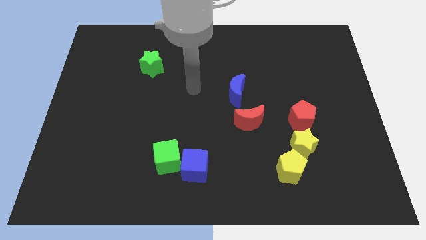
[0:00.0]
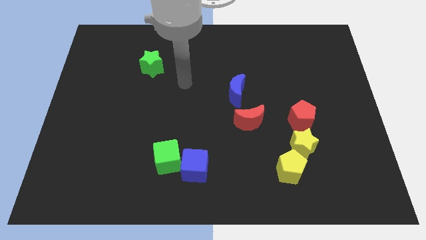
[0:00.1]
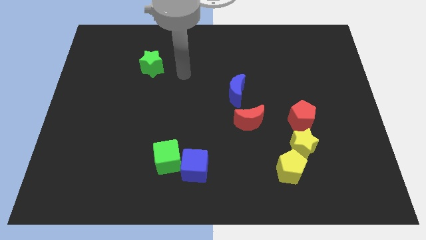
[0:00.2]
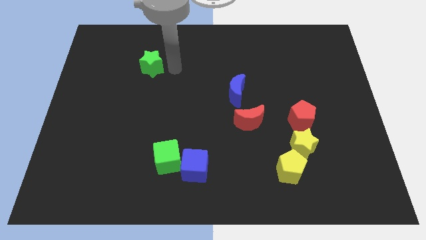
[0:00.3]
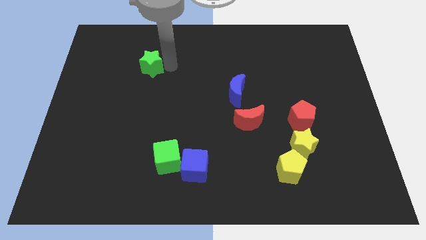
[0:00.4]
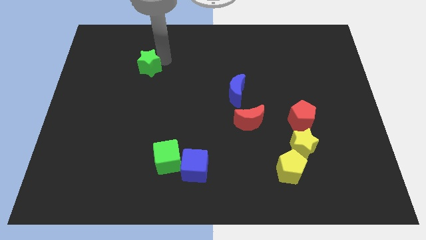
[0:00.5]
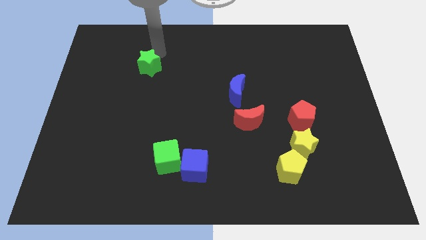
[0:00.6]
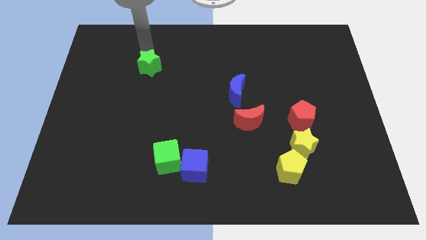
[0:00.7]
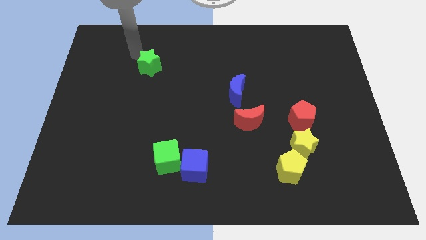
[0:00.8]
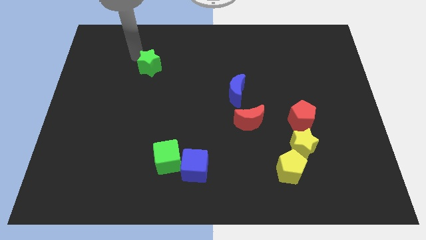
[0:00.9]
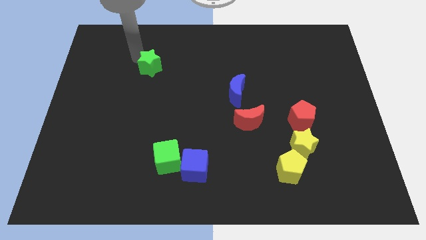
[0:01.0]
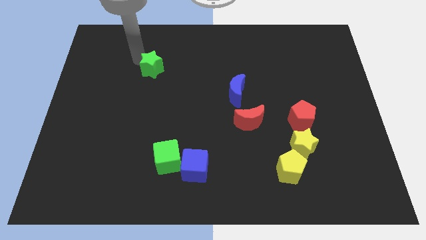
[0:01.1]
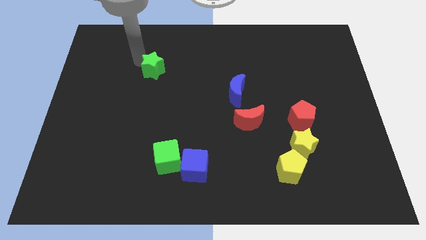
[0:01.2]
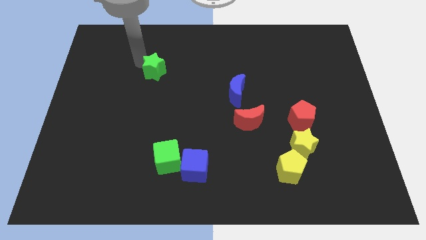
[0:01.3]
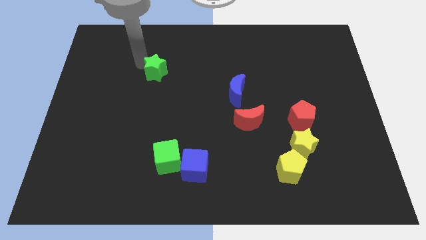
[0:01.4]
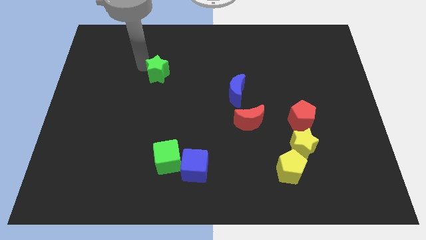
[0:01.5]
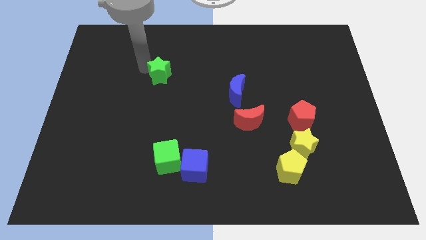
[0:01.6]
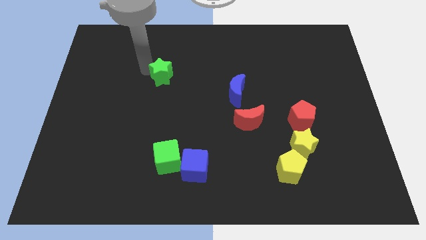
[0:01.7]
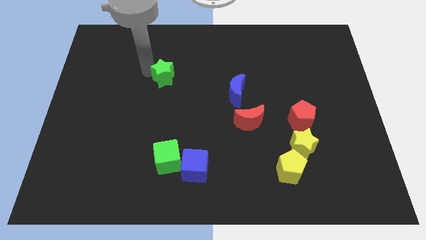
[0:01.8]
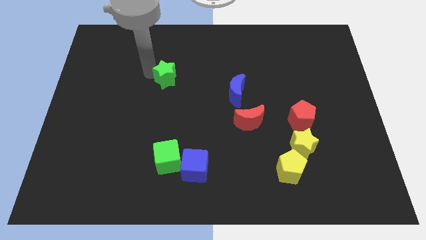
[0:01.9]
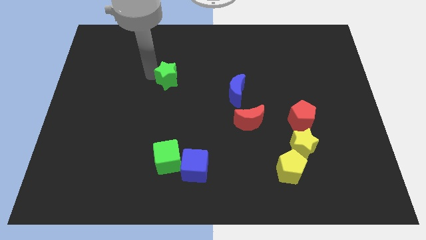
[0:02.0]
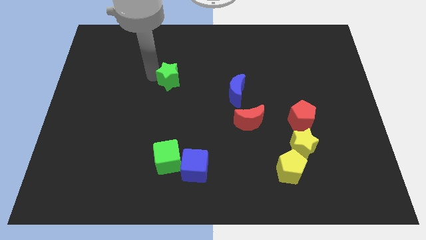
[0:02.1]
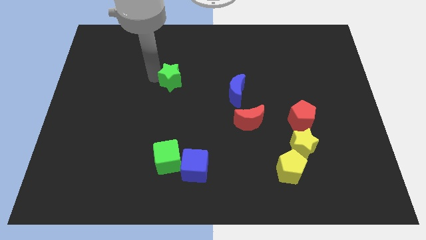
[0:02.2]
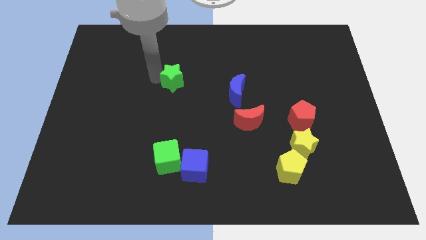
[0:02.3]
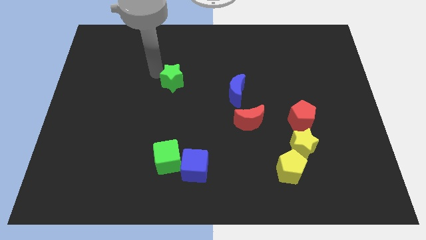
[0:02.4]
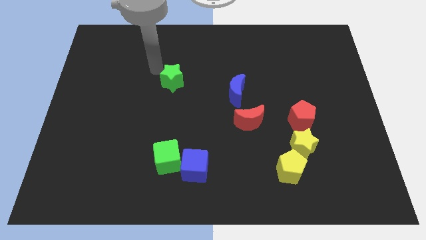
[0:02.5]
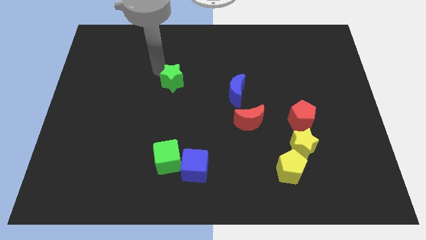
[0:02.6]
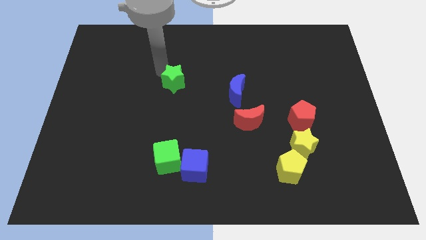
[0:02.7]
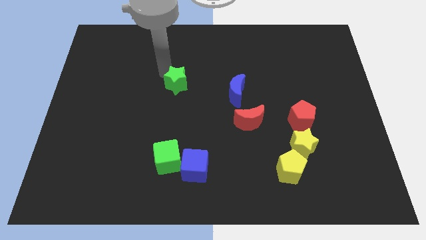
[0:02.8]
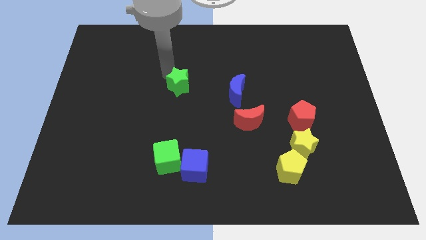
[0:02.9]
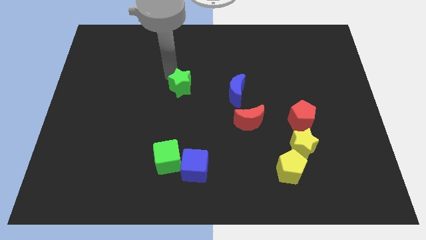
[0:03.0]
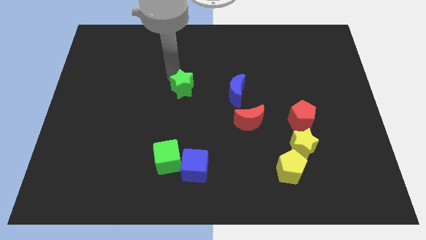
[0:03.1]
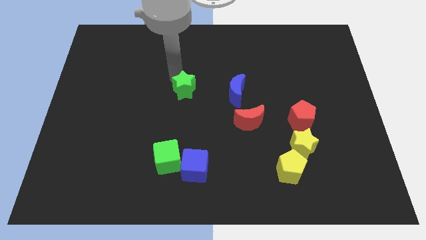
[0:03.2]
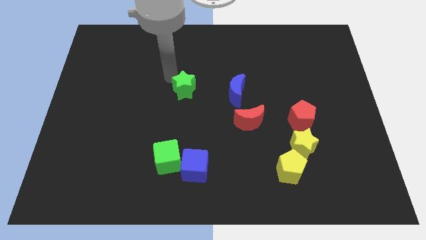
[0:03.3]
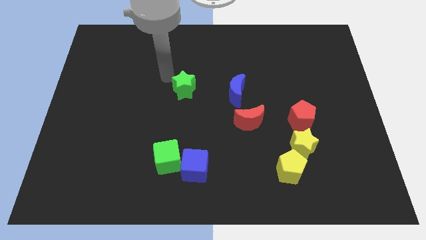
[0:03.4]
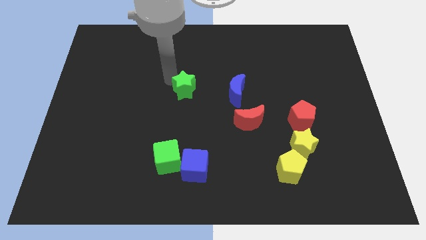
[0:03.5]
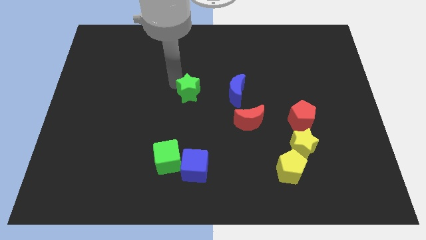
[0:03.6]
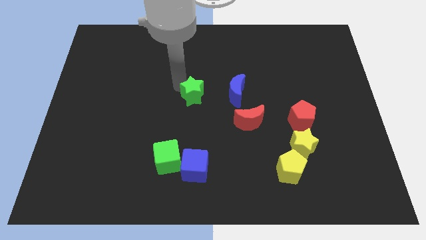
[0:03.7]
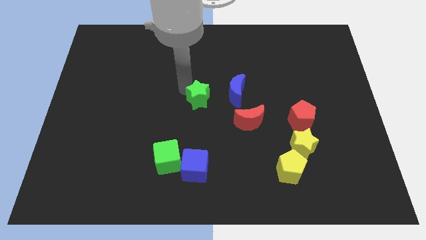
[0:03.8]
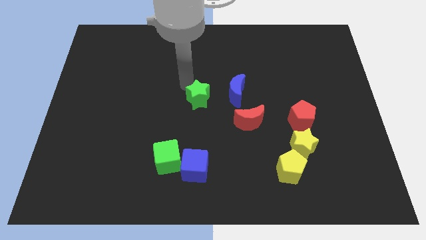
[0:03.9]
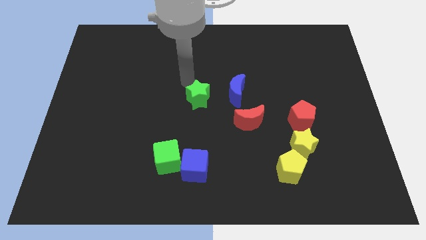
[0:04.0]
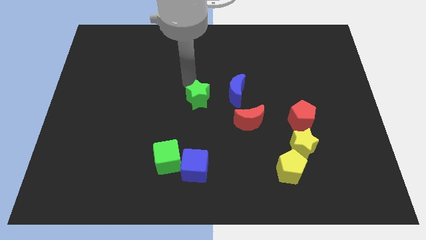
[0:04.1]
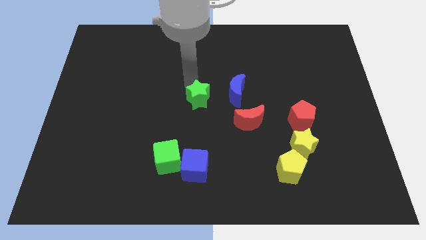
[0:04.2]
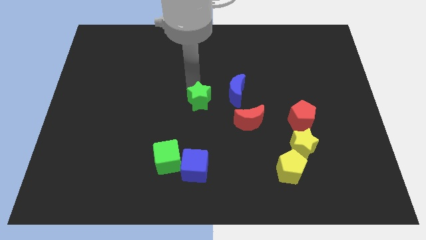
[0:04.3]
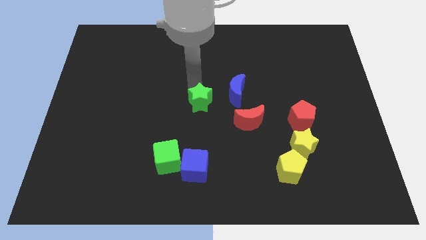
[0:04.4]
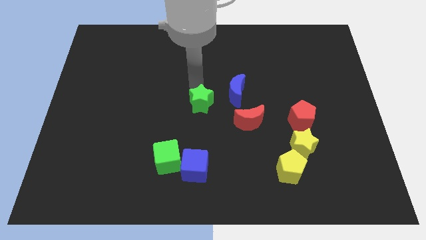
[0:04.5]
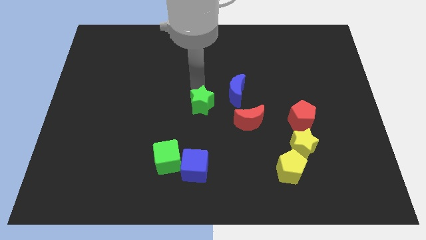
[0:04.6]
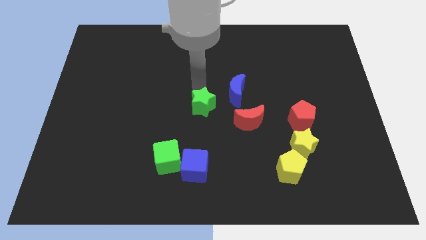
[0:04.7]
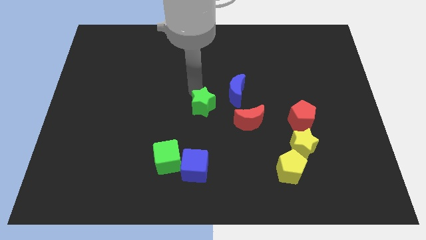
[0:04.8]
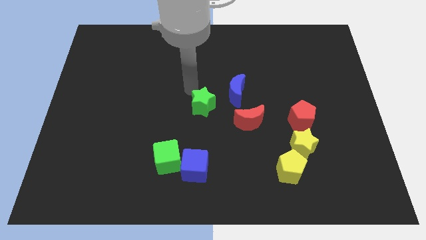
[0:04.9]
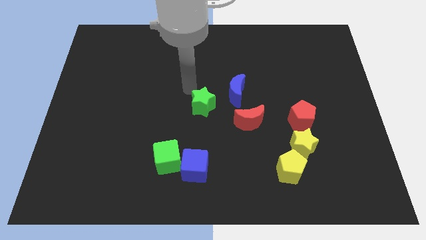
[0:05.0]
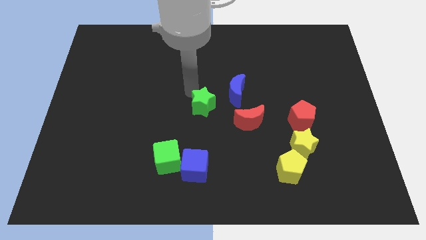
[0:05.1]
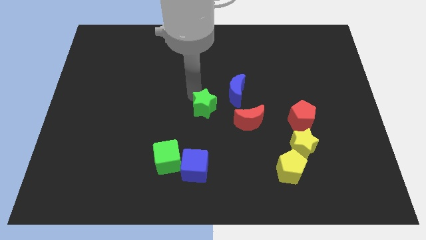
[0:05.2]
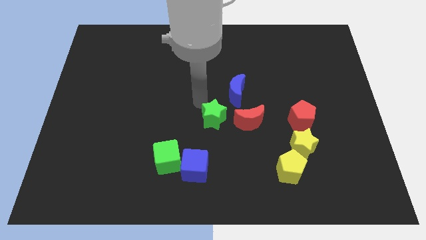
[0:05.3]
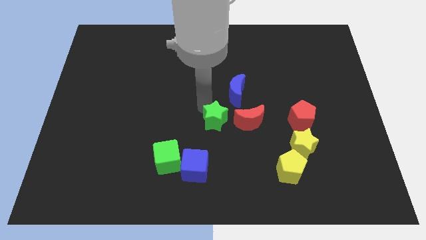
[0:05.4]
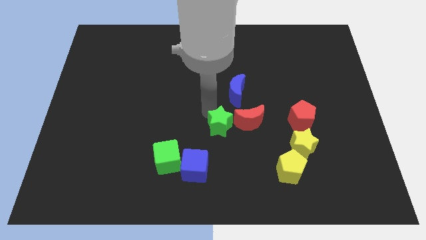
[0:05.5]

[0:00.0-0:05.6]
slide the green star diagonally down and to the left of the red moon

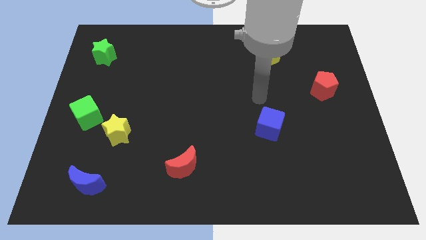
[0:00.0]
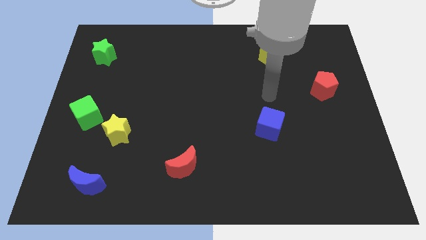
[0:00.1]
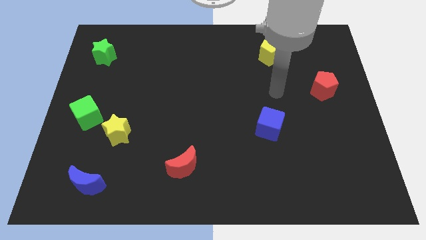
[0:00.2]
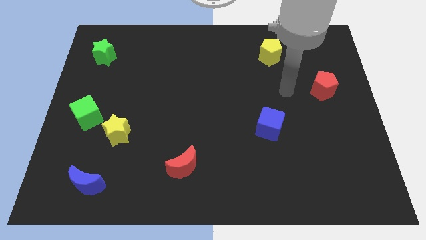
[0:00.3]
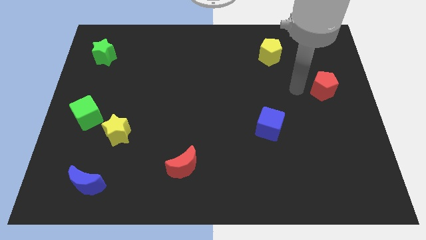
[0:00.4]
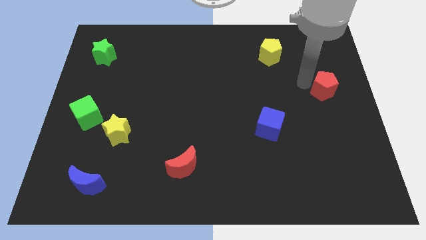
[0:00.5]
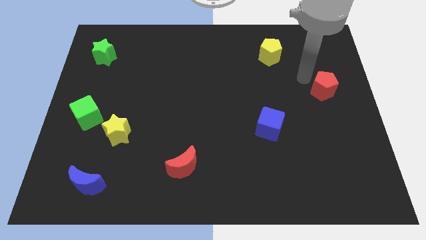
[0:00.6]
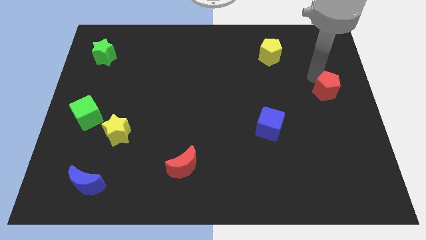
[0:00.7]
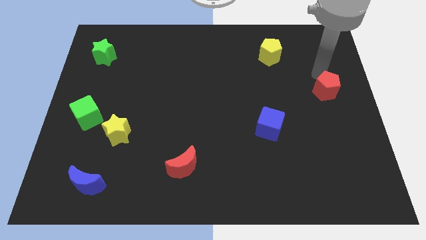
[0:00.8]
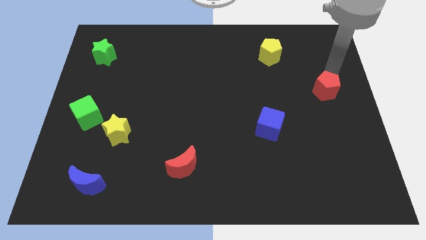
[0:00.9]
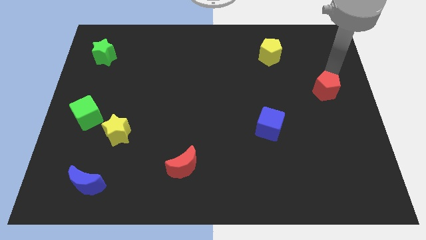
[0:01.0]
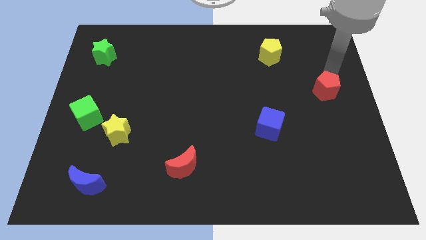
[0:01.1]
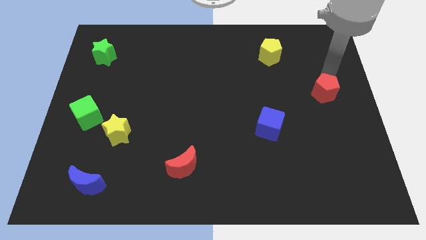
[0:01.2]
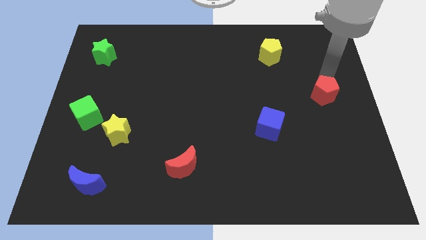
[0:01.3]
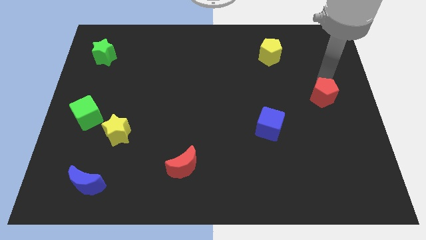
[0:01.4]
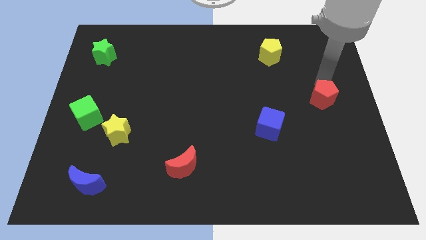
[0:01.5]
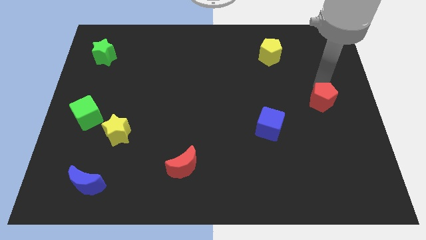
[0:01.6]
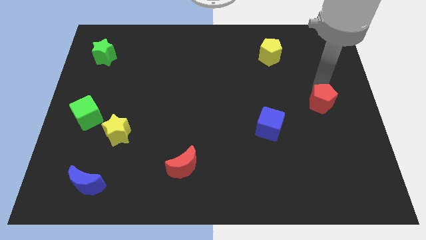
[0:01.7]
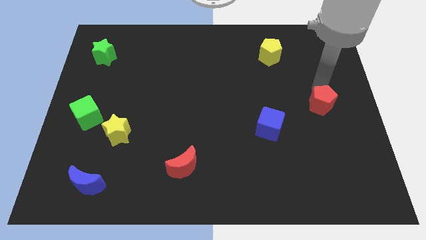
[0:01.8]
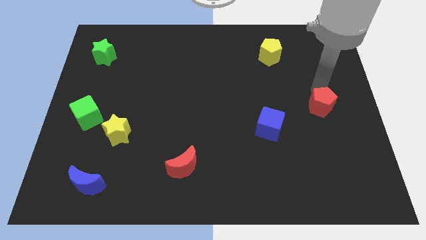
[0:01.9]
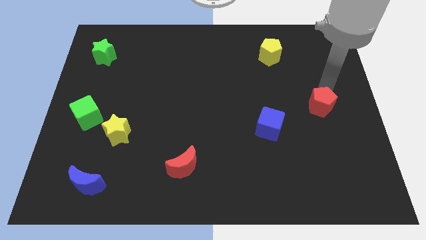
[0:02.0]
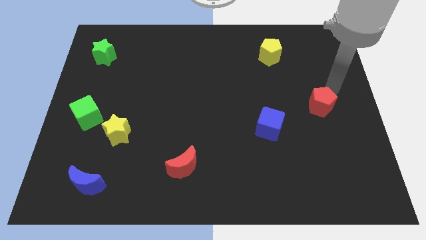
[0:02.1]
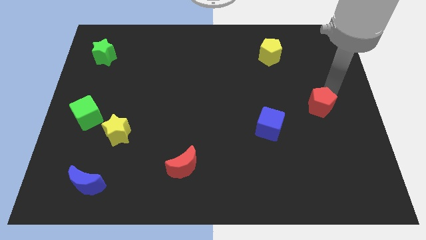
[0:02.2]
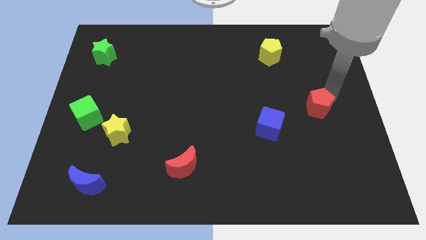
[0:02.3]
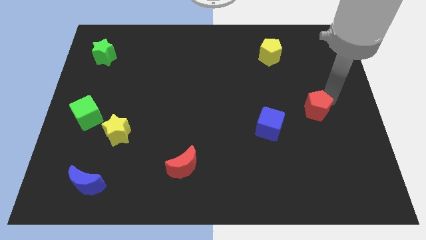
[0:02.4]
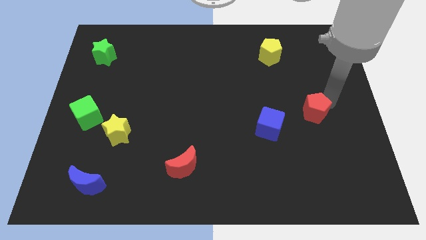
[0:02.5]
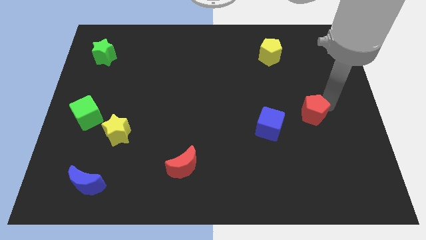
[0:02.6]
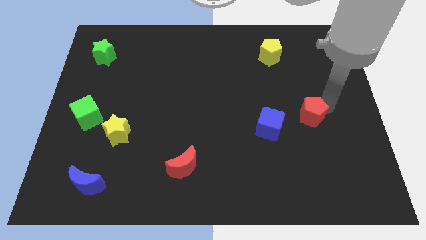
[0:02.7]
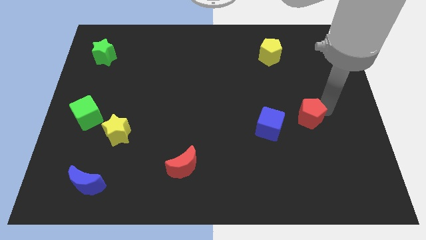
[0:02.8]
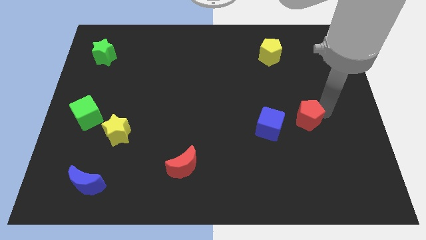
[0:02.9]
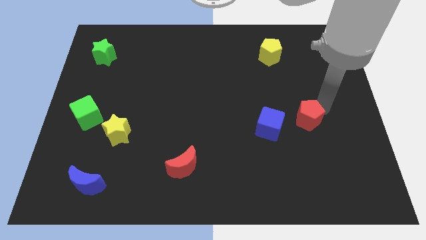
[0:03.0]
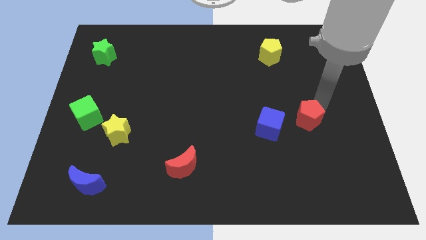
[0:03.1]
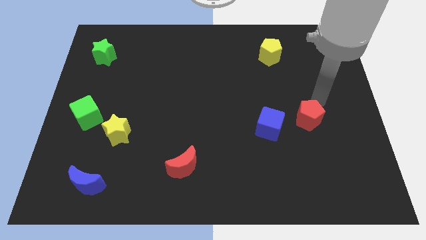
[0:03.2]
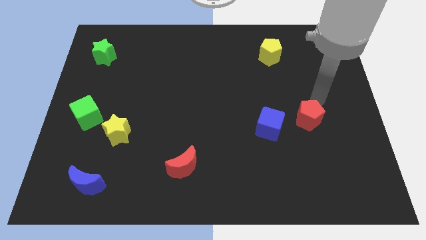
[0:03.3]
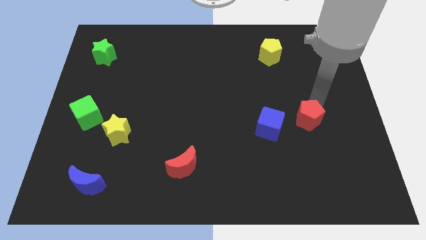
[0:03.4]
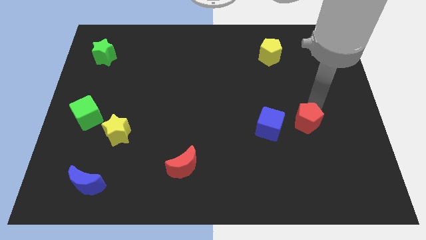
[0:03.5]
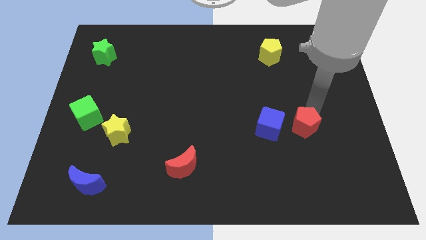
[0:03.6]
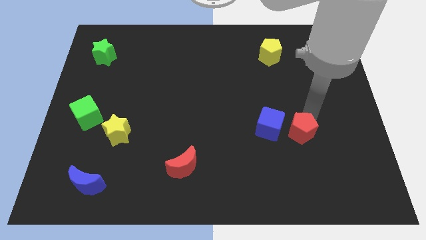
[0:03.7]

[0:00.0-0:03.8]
push the red pentagon diagonally down and to the right of the blue cube
